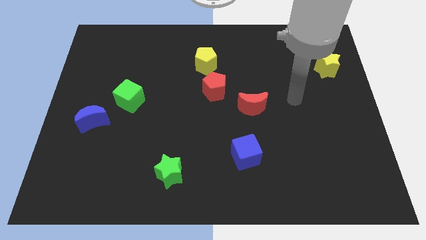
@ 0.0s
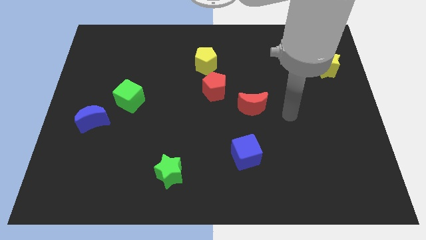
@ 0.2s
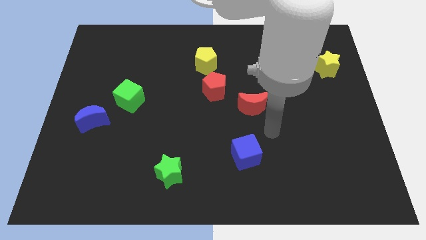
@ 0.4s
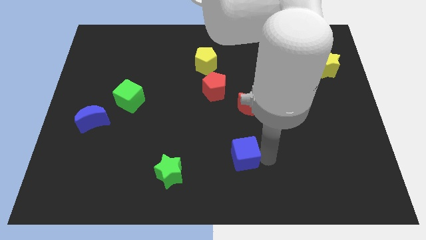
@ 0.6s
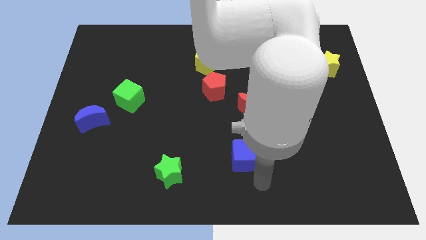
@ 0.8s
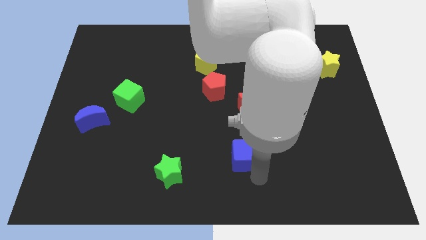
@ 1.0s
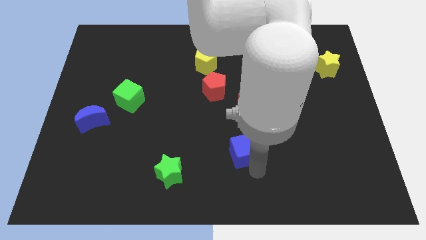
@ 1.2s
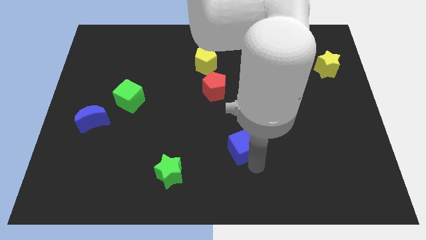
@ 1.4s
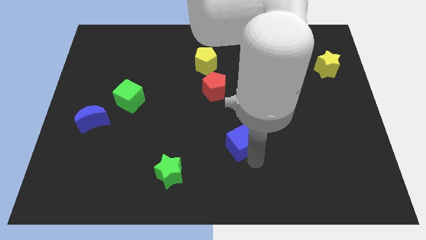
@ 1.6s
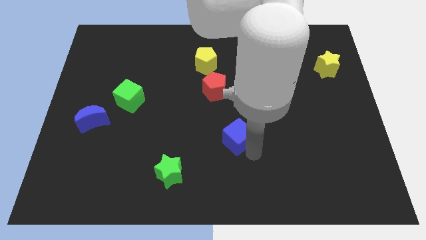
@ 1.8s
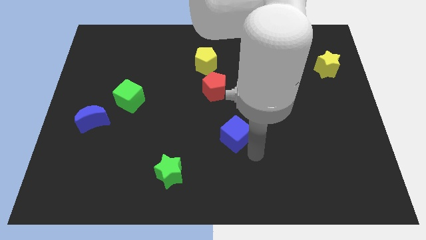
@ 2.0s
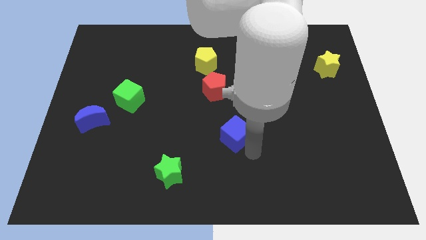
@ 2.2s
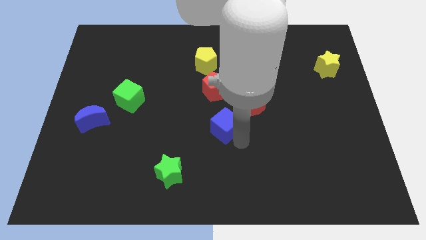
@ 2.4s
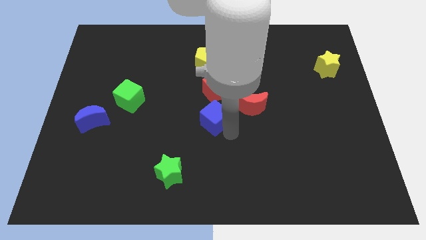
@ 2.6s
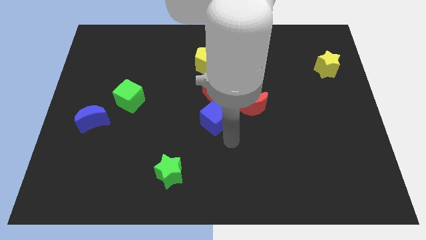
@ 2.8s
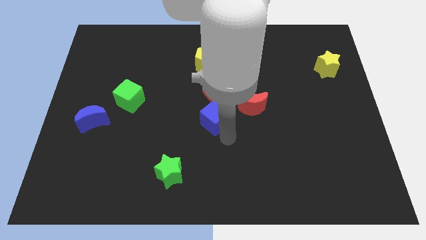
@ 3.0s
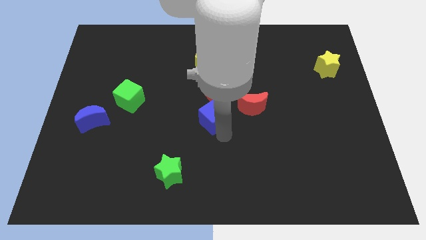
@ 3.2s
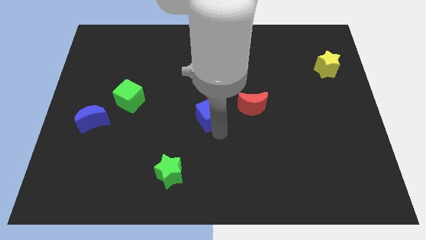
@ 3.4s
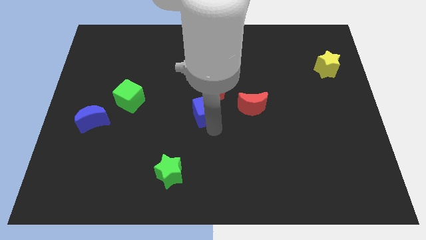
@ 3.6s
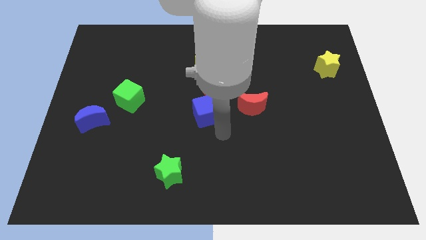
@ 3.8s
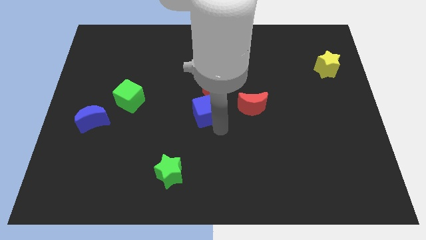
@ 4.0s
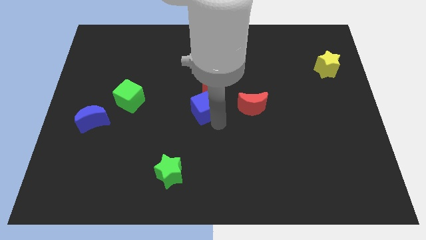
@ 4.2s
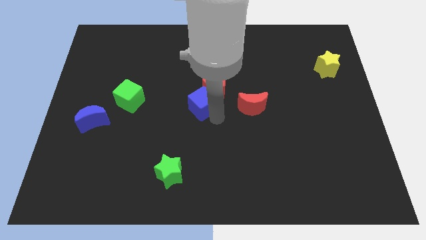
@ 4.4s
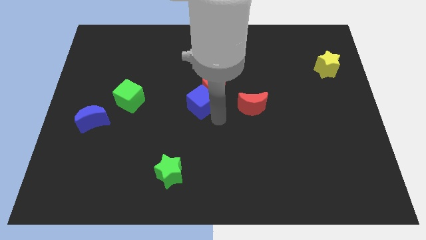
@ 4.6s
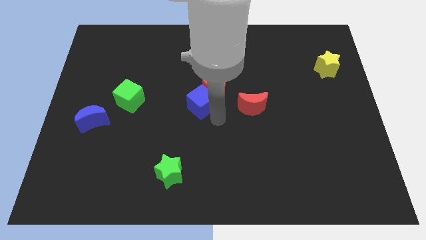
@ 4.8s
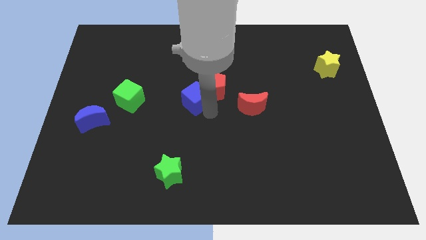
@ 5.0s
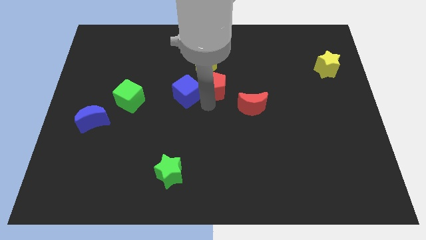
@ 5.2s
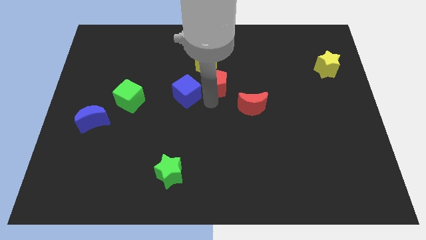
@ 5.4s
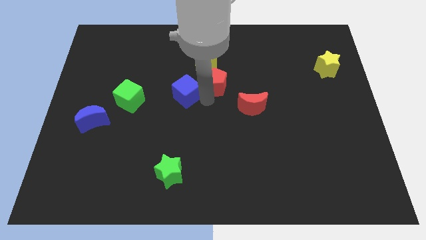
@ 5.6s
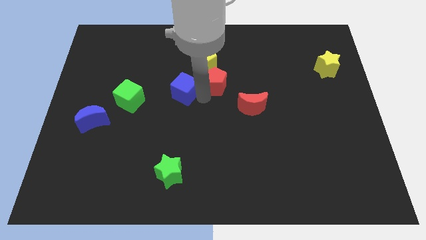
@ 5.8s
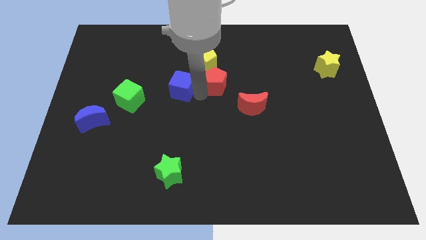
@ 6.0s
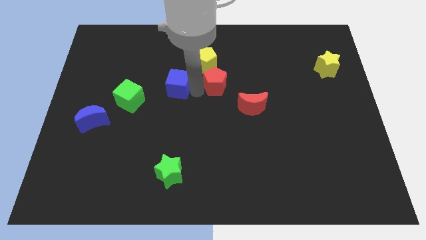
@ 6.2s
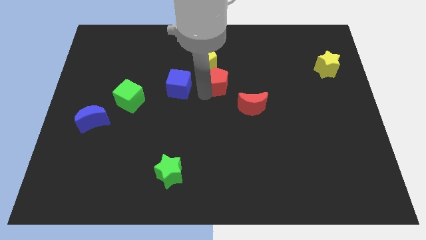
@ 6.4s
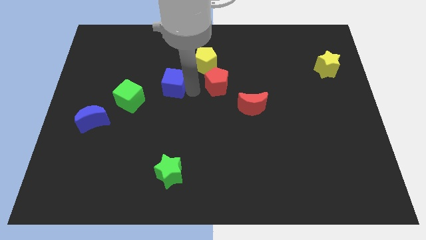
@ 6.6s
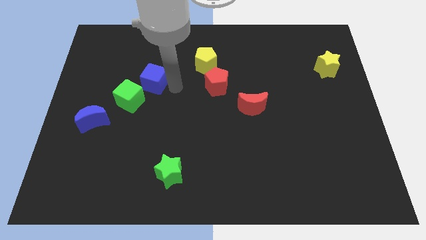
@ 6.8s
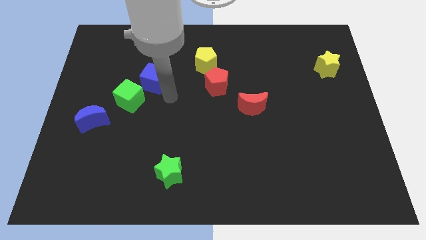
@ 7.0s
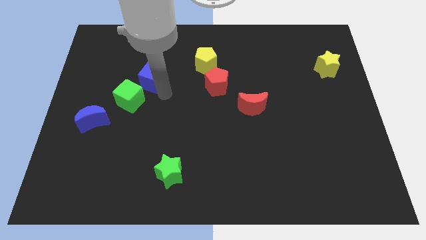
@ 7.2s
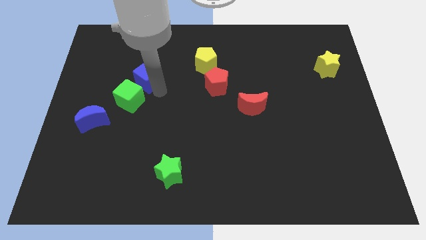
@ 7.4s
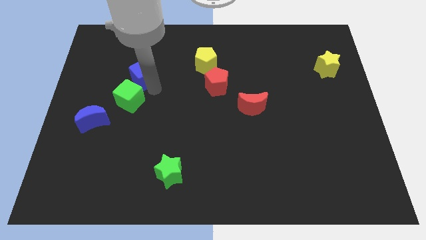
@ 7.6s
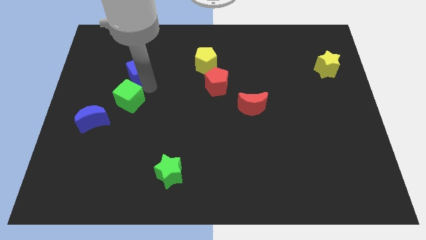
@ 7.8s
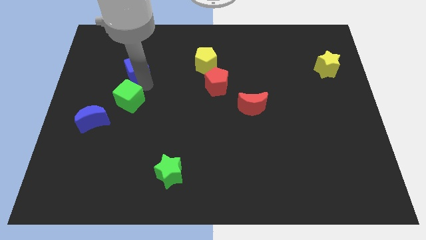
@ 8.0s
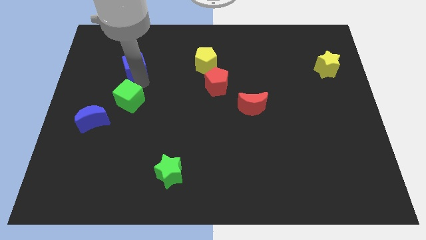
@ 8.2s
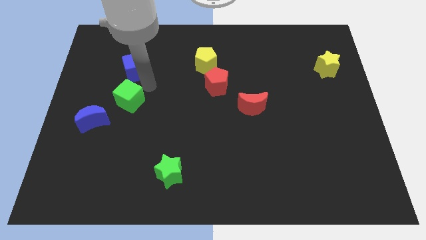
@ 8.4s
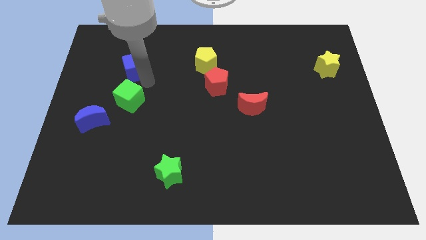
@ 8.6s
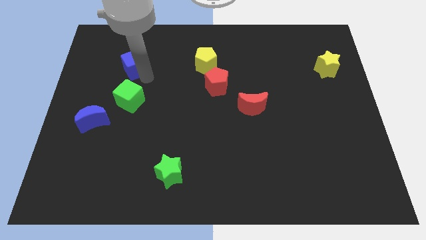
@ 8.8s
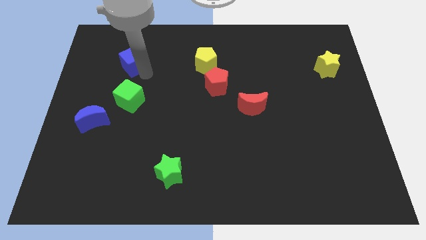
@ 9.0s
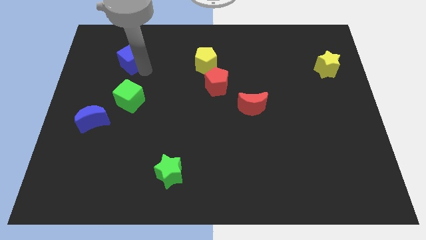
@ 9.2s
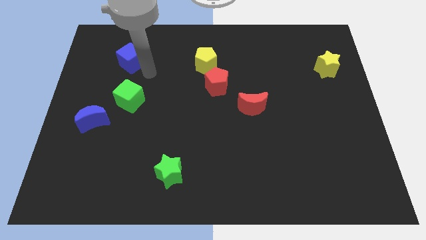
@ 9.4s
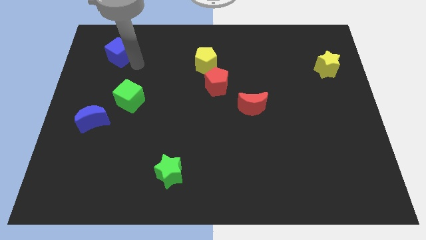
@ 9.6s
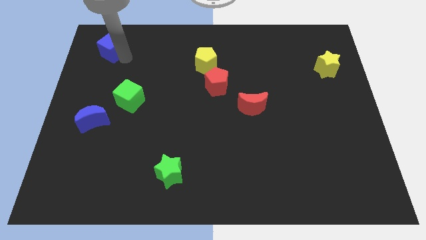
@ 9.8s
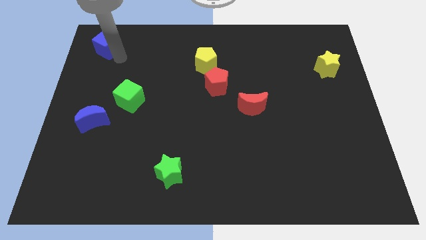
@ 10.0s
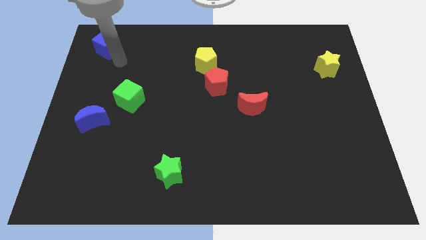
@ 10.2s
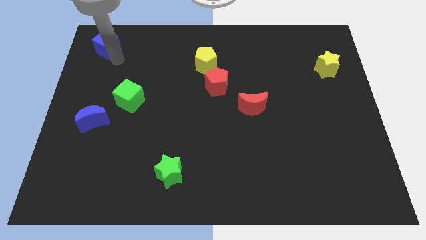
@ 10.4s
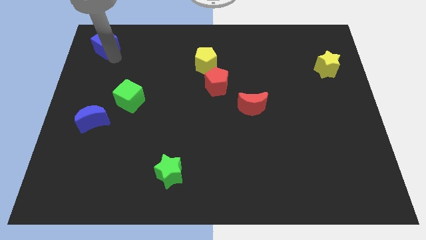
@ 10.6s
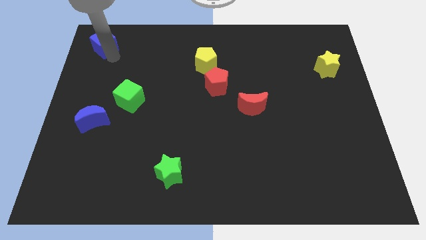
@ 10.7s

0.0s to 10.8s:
move the blue cube to the upper left corner

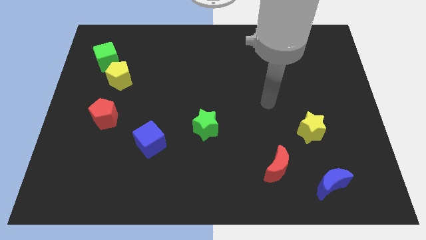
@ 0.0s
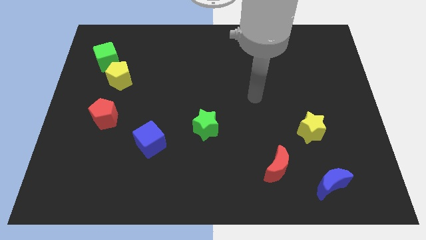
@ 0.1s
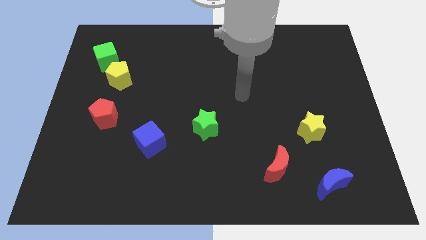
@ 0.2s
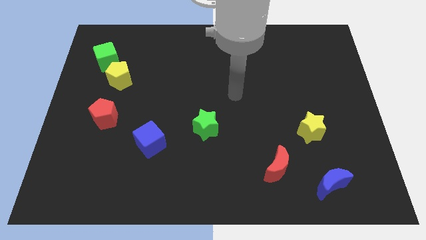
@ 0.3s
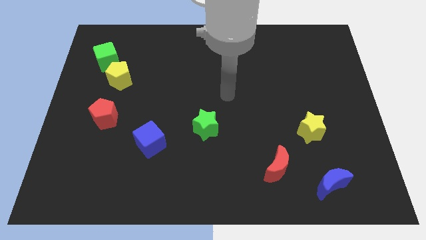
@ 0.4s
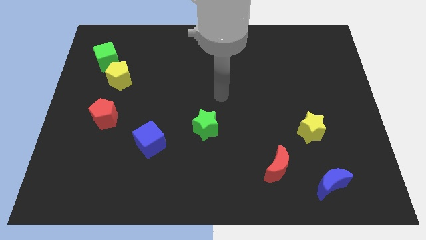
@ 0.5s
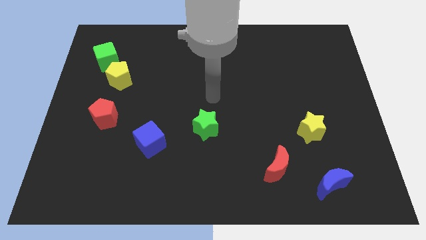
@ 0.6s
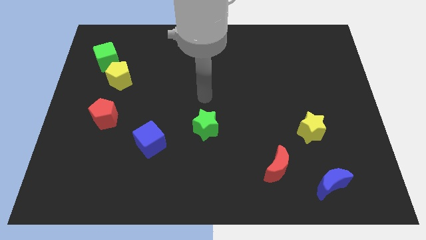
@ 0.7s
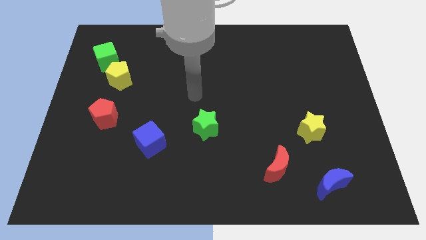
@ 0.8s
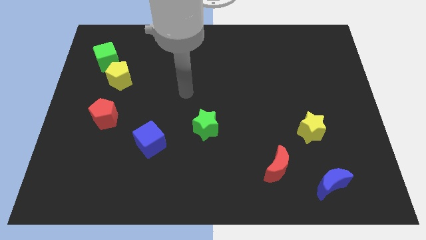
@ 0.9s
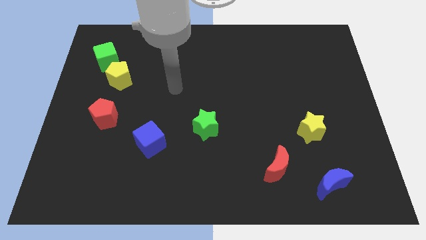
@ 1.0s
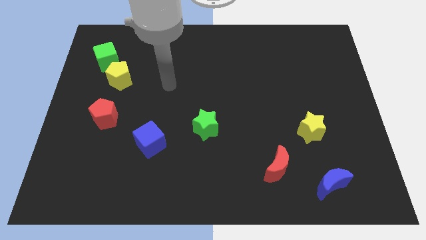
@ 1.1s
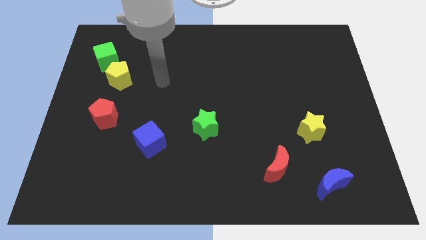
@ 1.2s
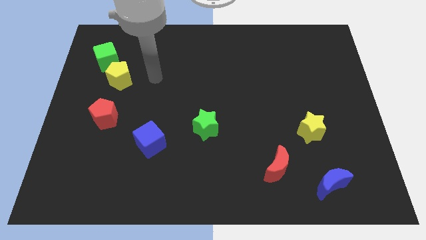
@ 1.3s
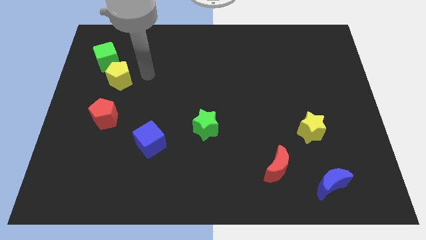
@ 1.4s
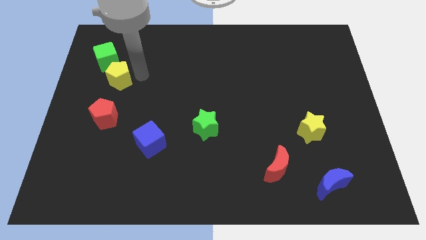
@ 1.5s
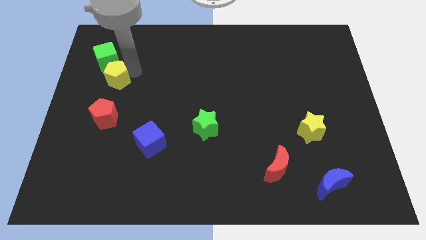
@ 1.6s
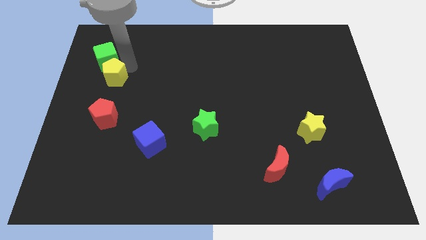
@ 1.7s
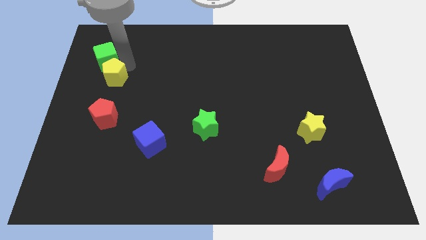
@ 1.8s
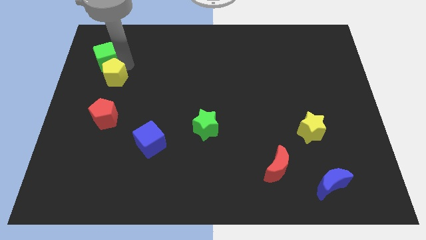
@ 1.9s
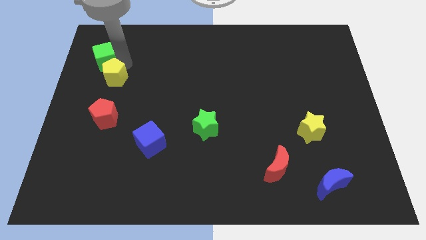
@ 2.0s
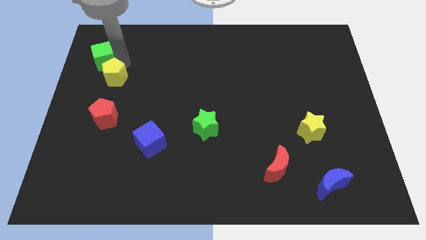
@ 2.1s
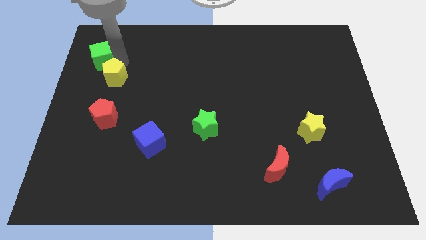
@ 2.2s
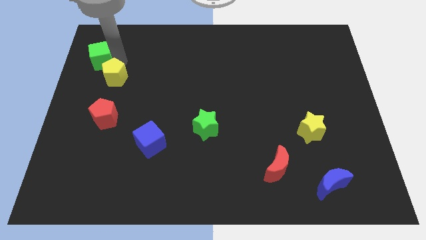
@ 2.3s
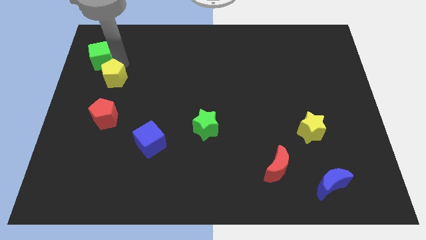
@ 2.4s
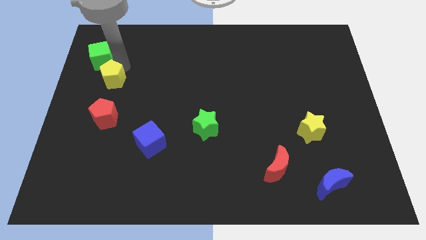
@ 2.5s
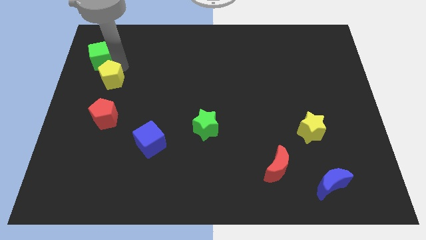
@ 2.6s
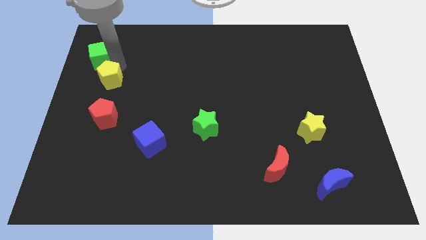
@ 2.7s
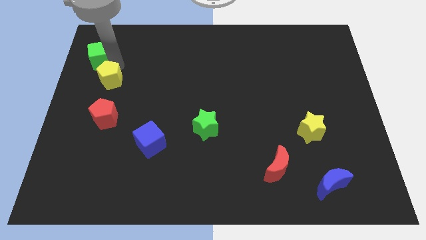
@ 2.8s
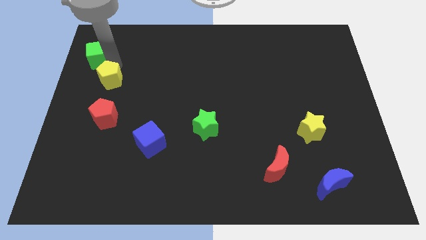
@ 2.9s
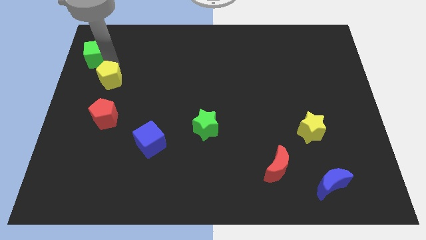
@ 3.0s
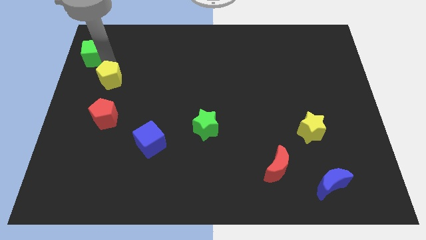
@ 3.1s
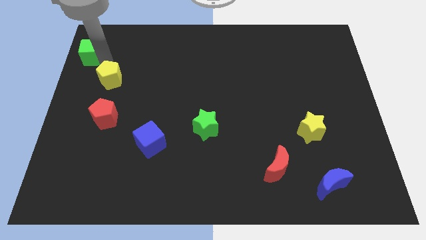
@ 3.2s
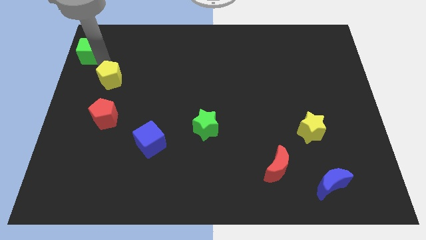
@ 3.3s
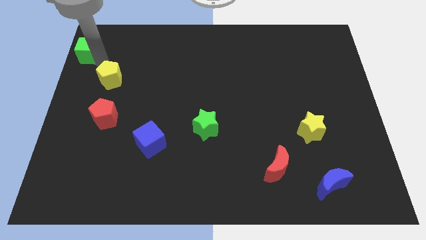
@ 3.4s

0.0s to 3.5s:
put the green cube to the upper left corner
